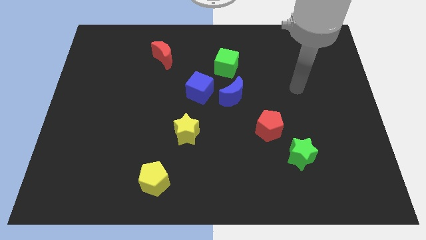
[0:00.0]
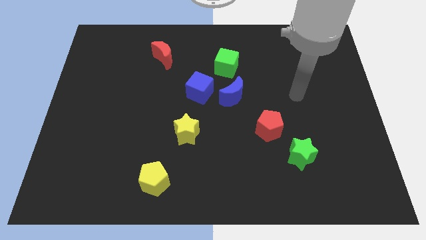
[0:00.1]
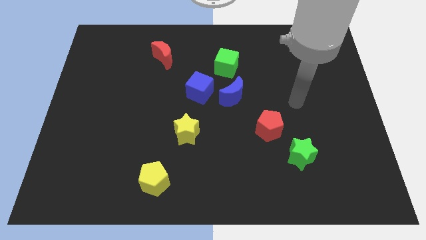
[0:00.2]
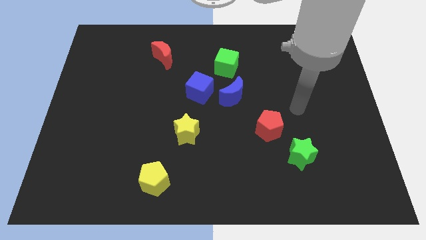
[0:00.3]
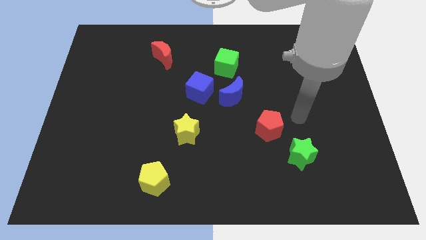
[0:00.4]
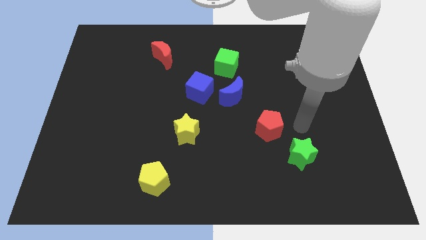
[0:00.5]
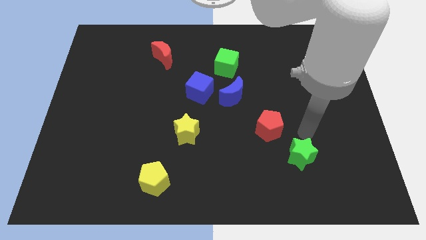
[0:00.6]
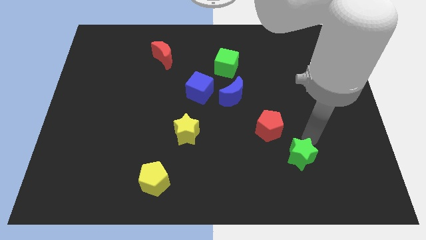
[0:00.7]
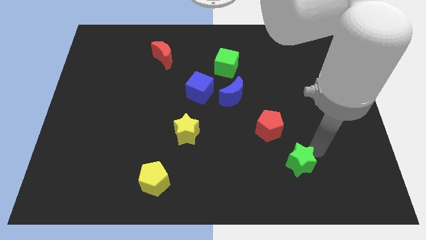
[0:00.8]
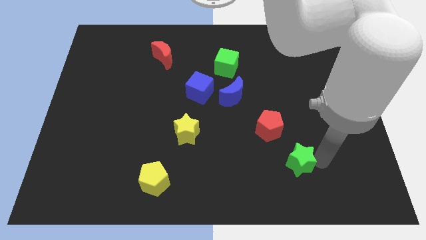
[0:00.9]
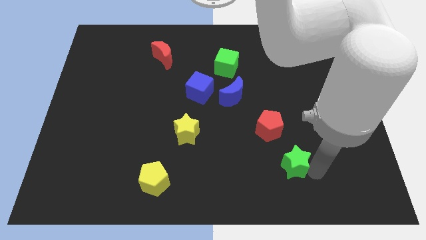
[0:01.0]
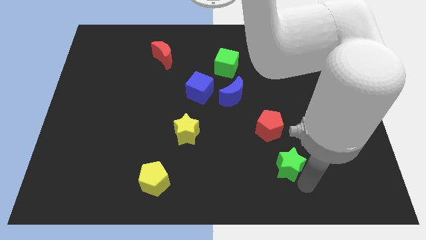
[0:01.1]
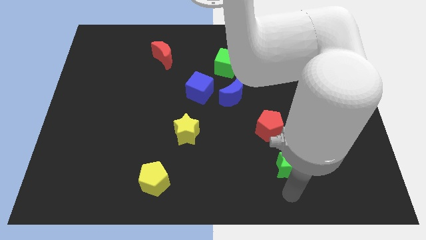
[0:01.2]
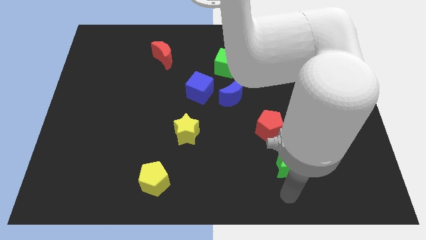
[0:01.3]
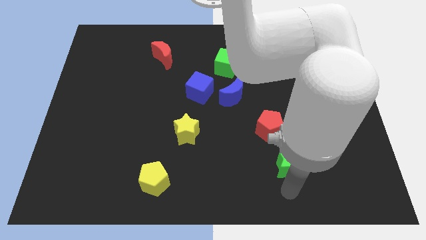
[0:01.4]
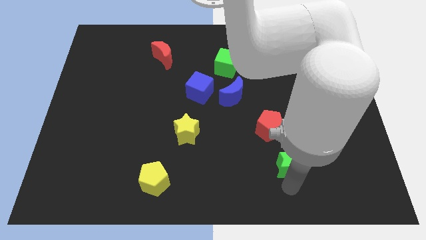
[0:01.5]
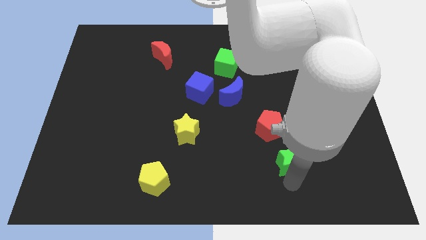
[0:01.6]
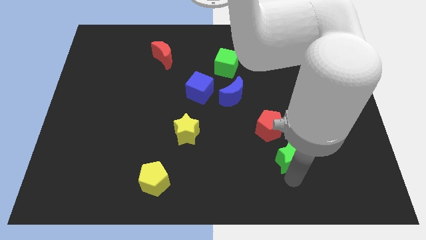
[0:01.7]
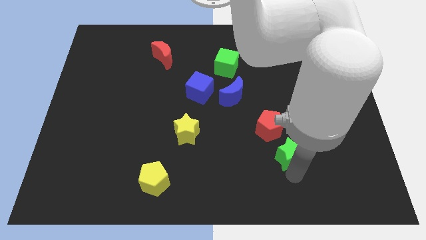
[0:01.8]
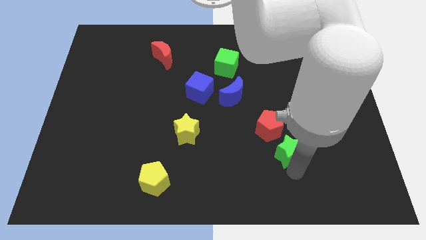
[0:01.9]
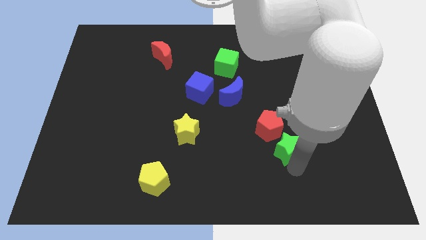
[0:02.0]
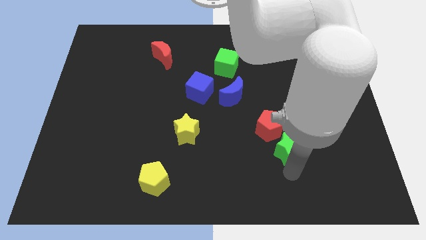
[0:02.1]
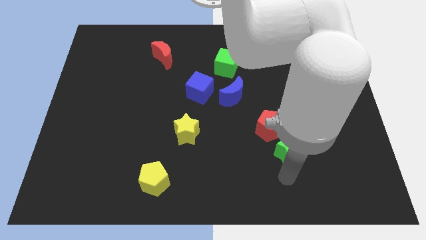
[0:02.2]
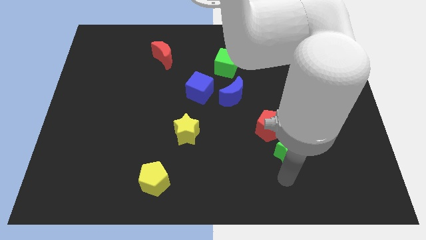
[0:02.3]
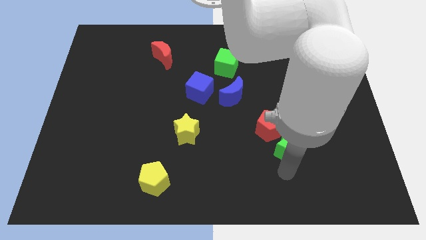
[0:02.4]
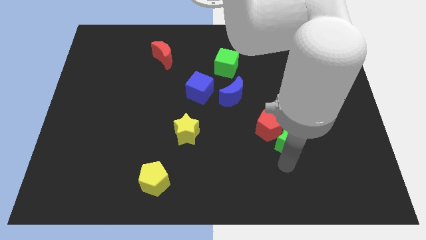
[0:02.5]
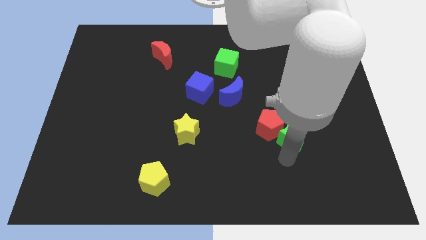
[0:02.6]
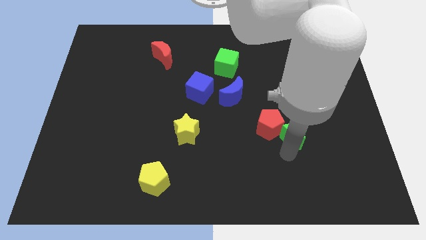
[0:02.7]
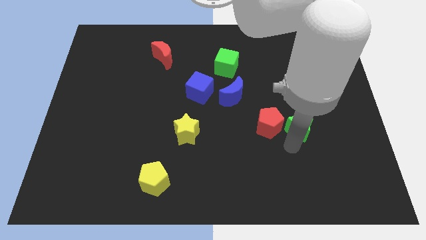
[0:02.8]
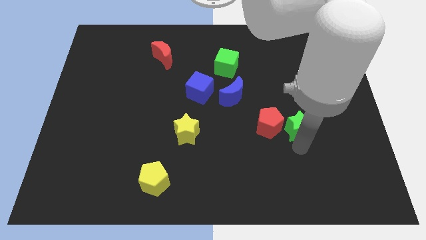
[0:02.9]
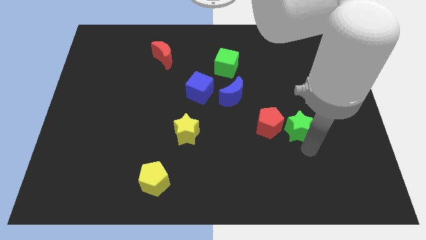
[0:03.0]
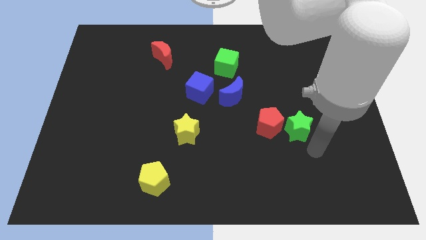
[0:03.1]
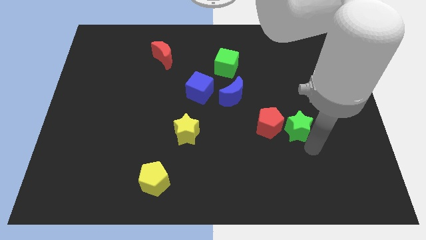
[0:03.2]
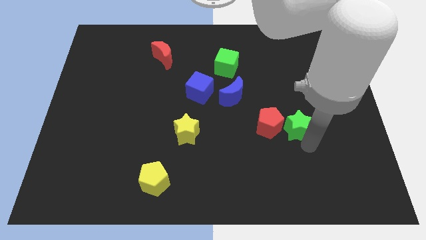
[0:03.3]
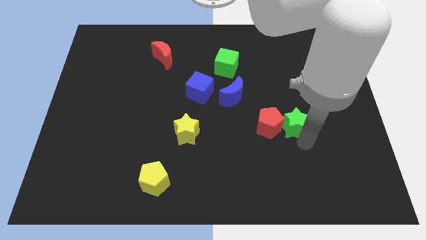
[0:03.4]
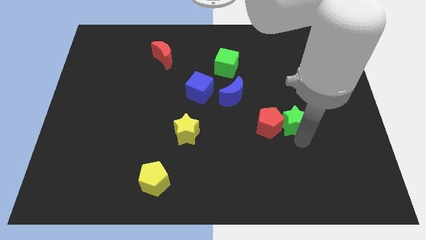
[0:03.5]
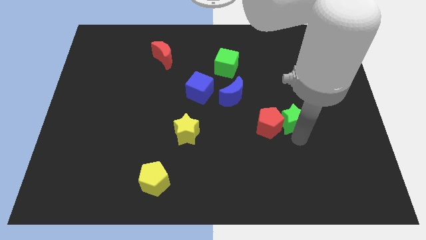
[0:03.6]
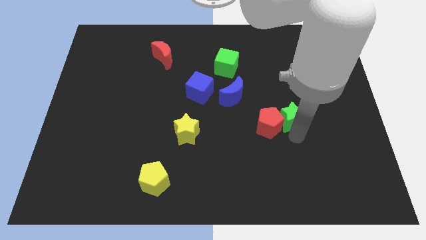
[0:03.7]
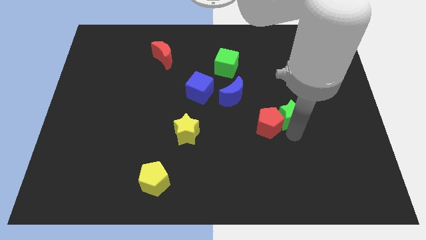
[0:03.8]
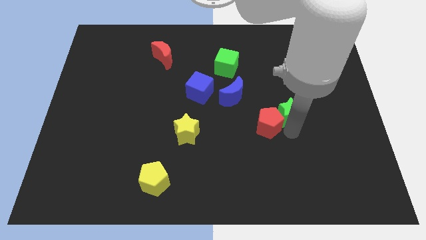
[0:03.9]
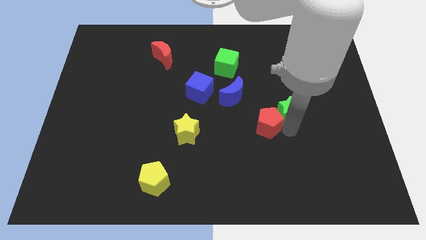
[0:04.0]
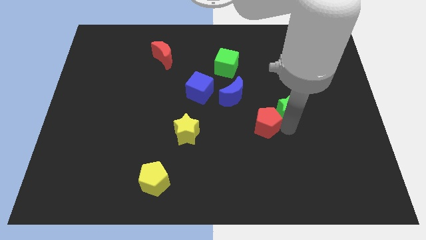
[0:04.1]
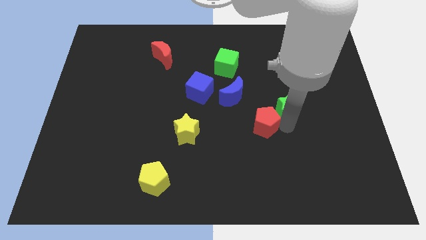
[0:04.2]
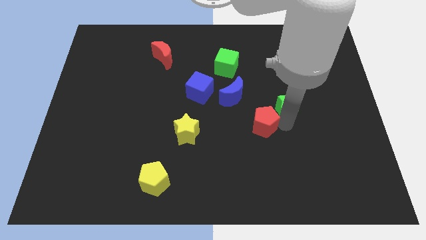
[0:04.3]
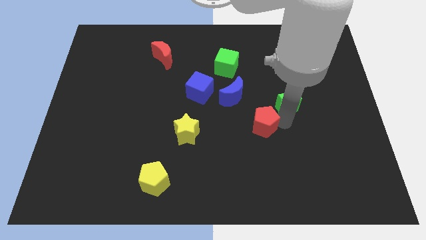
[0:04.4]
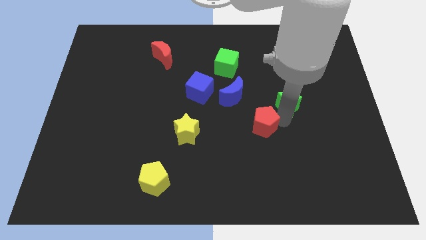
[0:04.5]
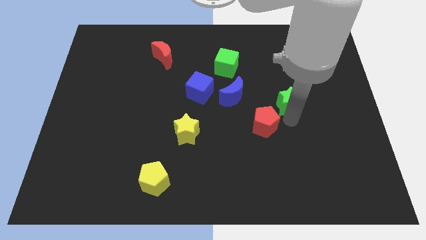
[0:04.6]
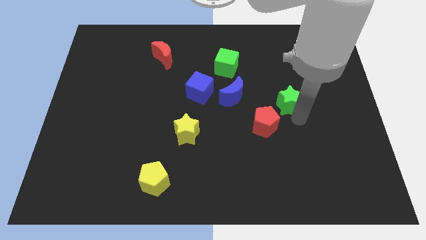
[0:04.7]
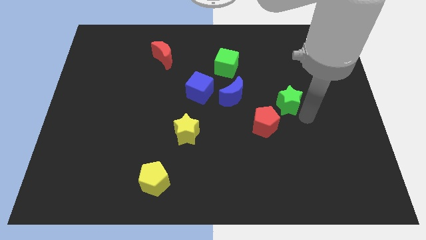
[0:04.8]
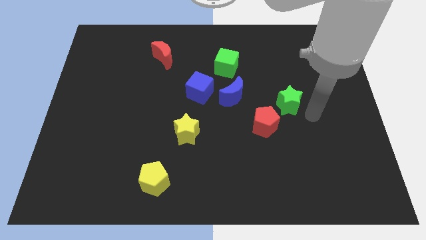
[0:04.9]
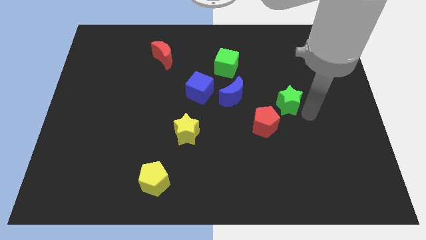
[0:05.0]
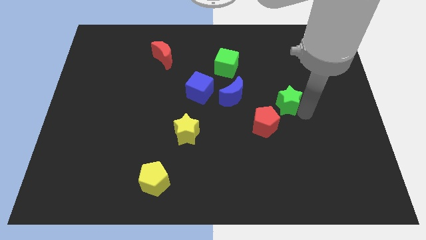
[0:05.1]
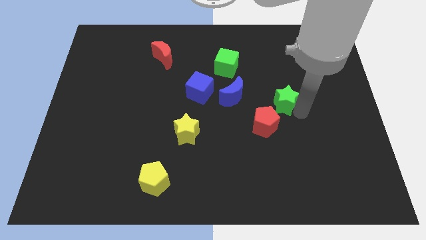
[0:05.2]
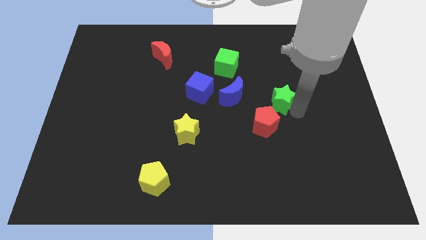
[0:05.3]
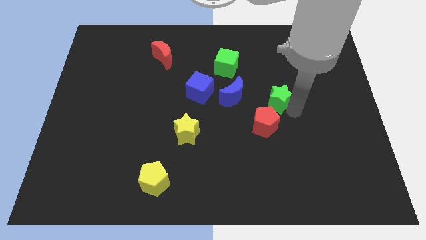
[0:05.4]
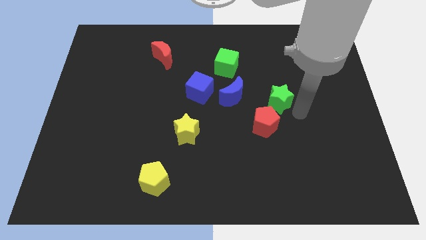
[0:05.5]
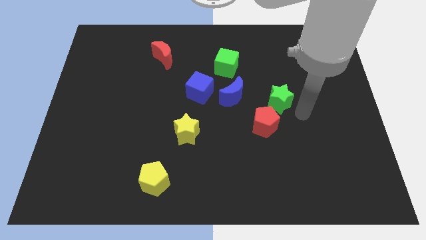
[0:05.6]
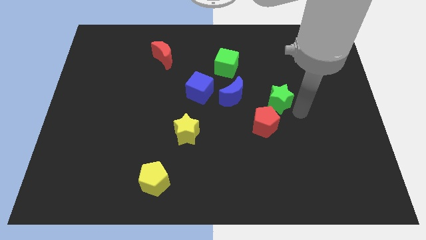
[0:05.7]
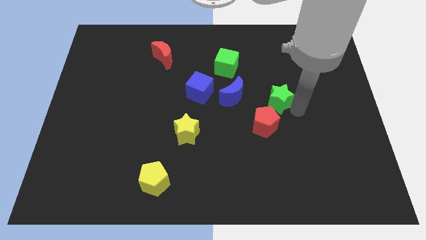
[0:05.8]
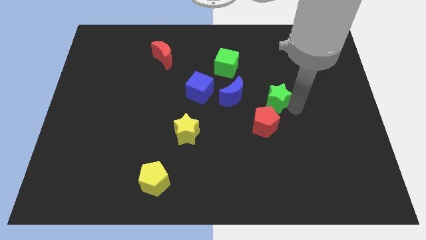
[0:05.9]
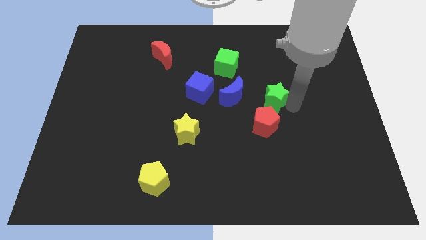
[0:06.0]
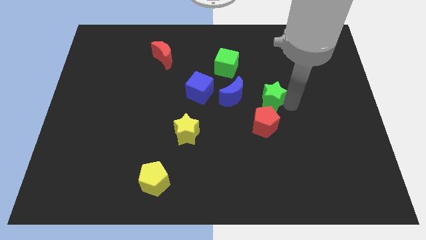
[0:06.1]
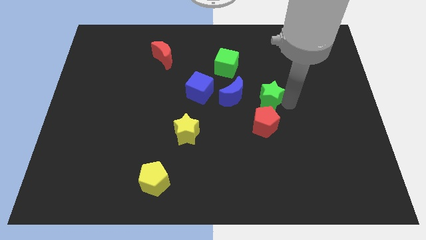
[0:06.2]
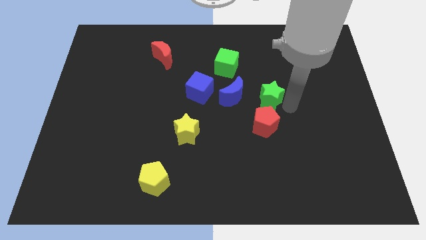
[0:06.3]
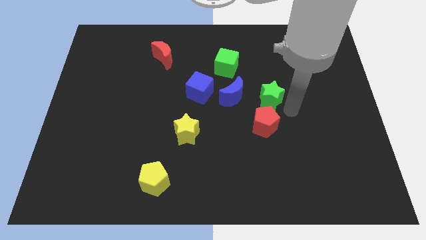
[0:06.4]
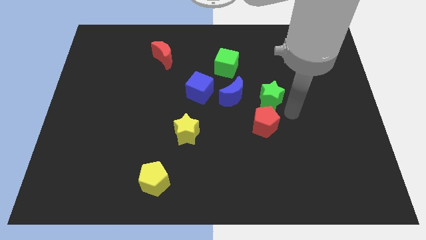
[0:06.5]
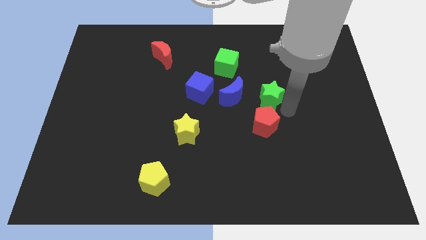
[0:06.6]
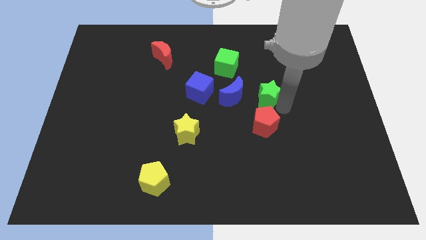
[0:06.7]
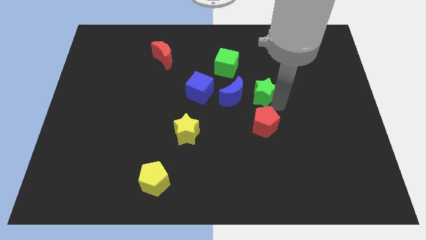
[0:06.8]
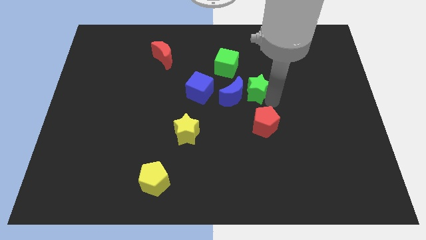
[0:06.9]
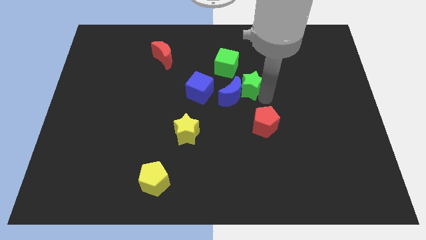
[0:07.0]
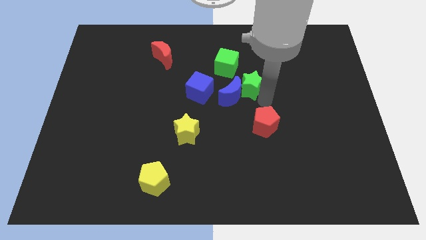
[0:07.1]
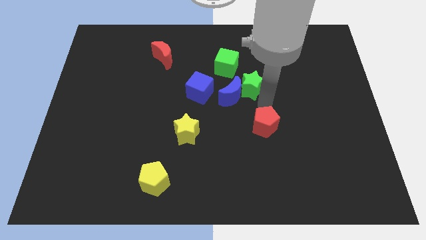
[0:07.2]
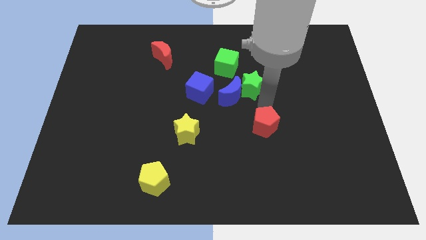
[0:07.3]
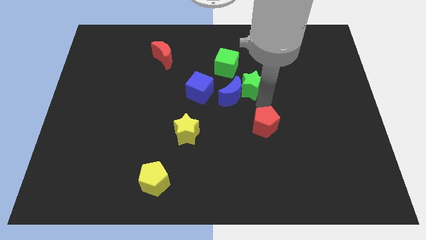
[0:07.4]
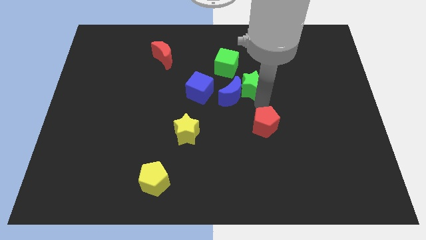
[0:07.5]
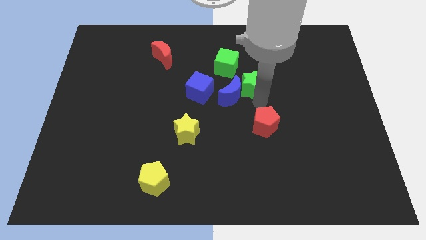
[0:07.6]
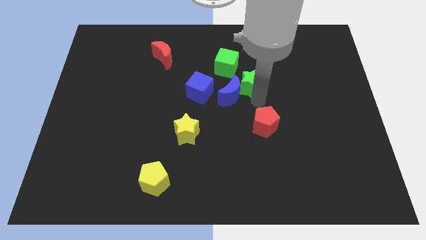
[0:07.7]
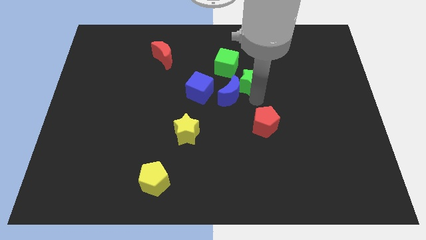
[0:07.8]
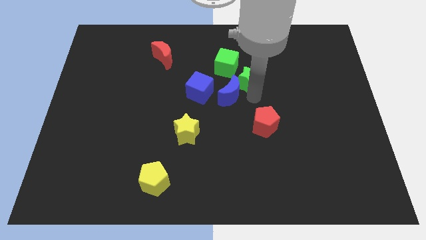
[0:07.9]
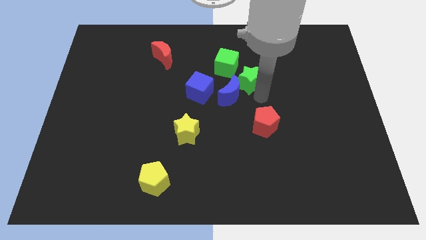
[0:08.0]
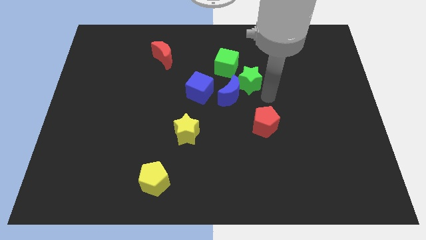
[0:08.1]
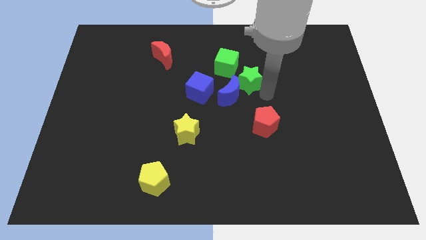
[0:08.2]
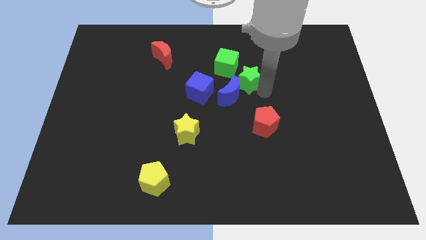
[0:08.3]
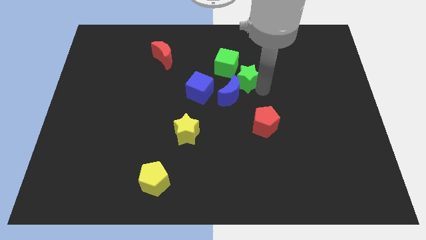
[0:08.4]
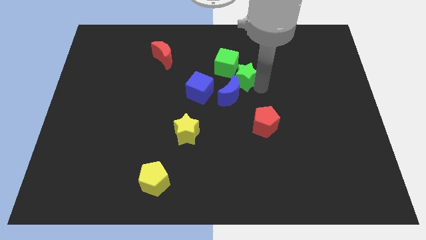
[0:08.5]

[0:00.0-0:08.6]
move the green star to the green cube
